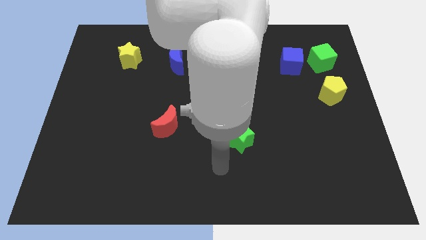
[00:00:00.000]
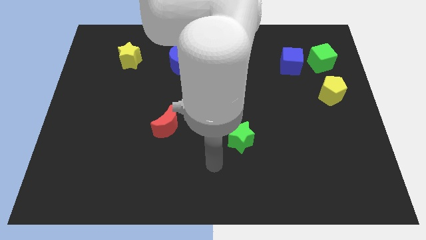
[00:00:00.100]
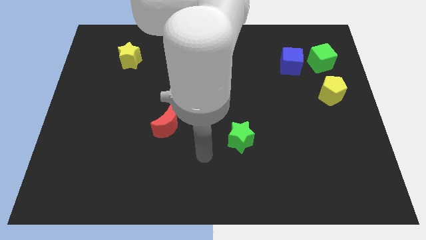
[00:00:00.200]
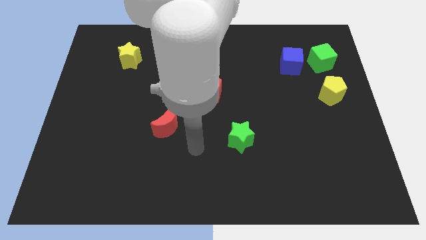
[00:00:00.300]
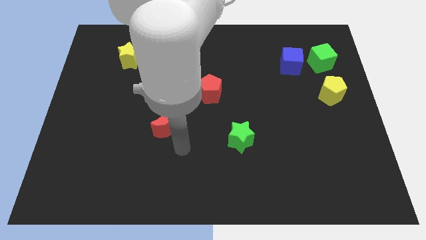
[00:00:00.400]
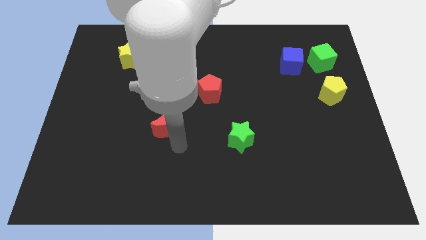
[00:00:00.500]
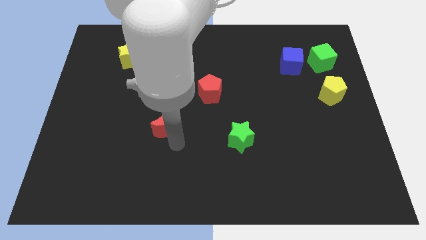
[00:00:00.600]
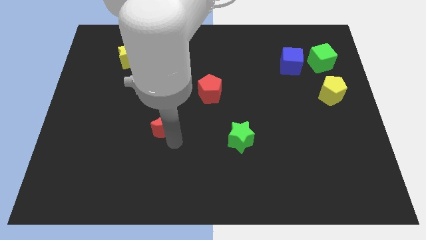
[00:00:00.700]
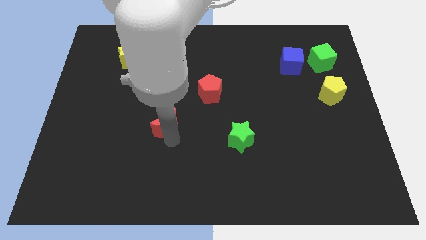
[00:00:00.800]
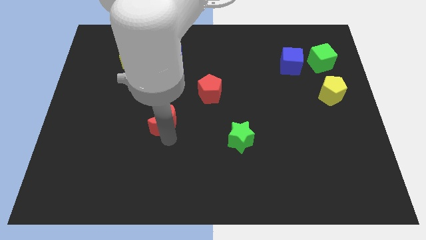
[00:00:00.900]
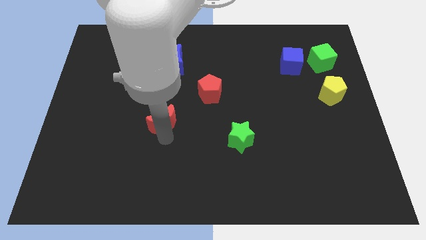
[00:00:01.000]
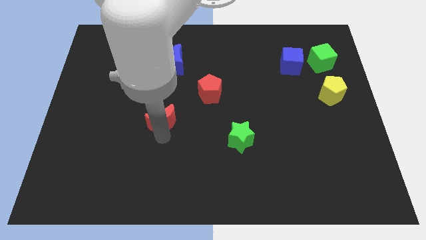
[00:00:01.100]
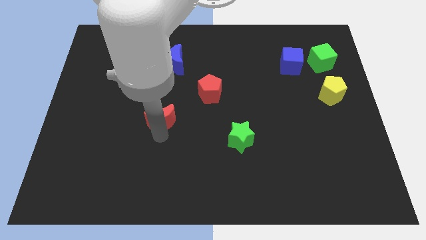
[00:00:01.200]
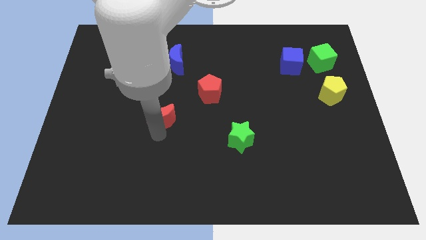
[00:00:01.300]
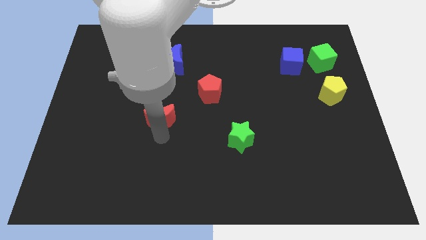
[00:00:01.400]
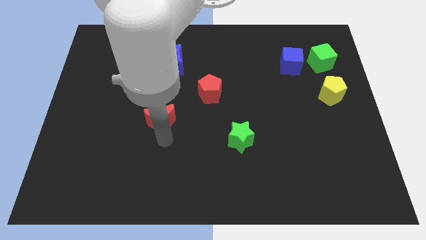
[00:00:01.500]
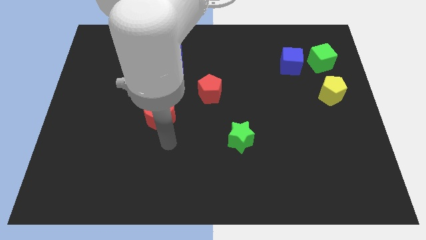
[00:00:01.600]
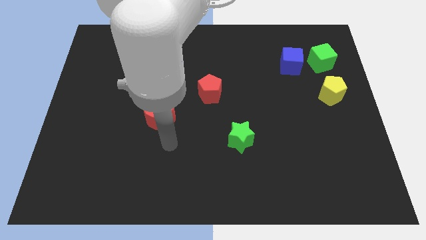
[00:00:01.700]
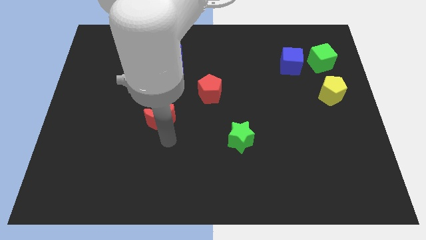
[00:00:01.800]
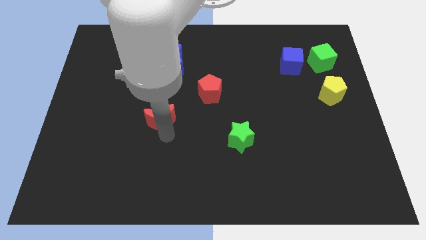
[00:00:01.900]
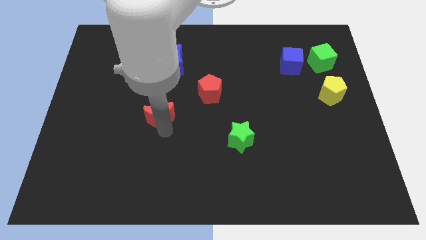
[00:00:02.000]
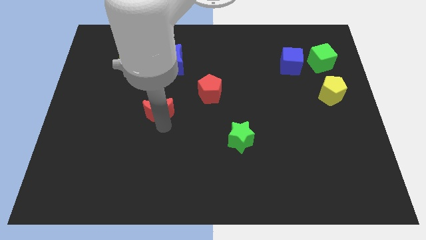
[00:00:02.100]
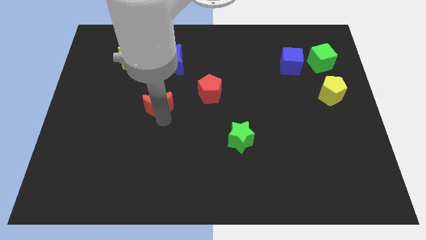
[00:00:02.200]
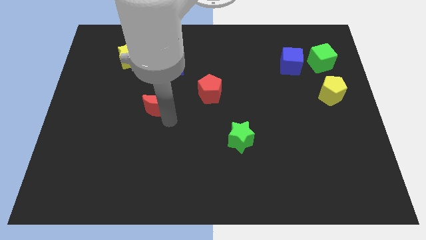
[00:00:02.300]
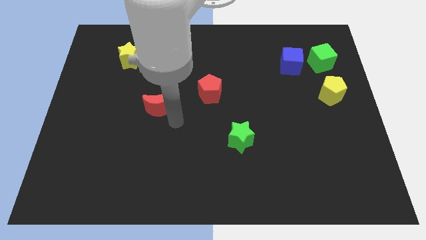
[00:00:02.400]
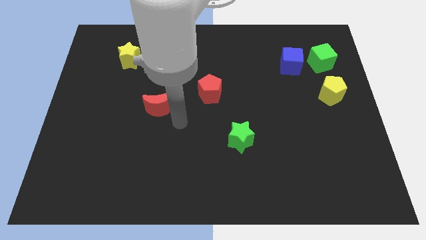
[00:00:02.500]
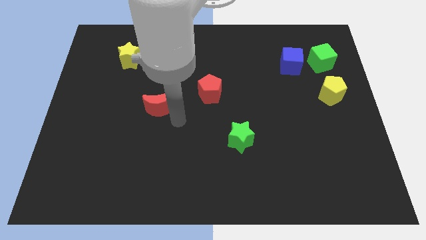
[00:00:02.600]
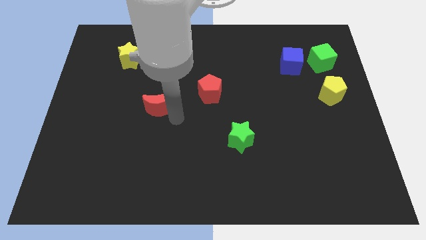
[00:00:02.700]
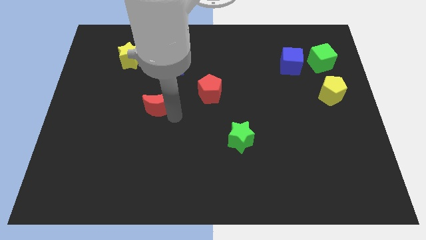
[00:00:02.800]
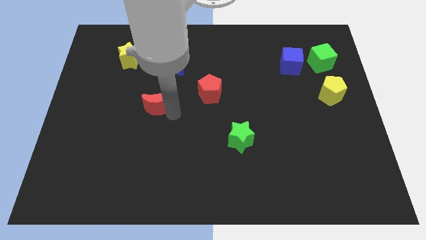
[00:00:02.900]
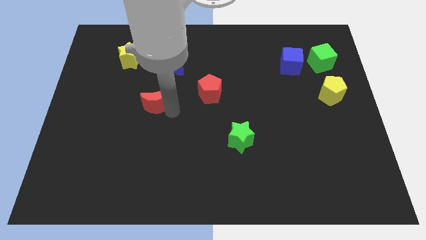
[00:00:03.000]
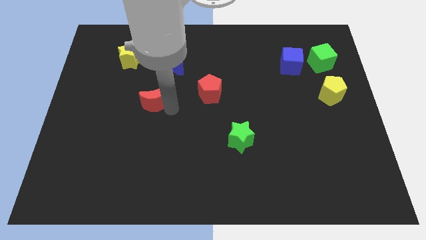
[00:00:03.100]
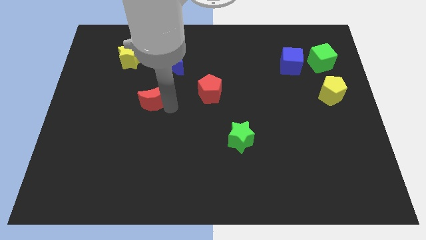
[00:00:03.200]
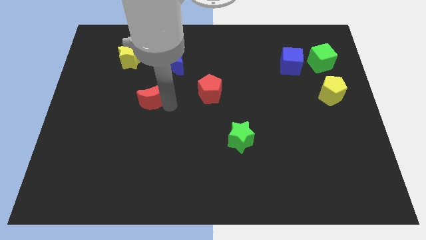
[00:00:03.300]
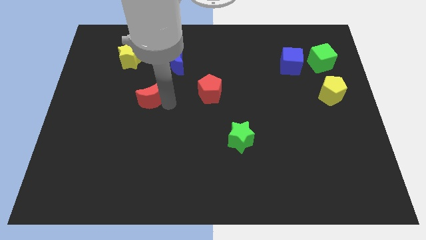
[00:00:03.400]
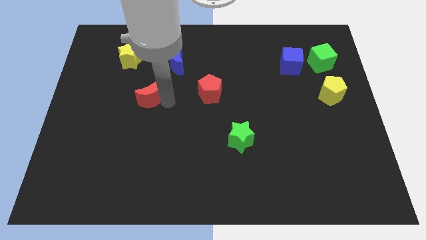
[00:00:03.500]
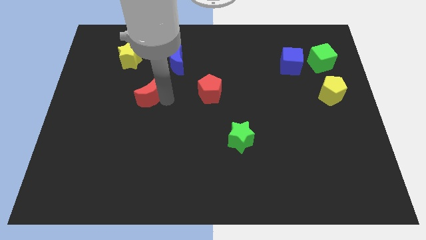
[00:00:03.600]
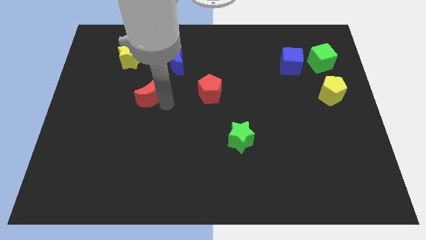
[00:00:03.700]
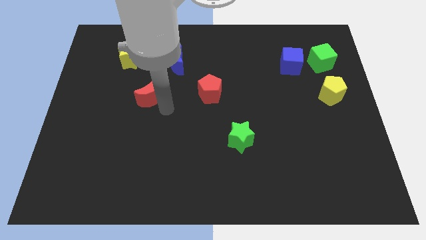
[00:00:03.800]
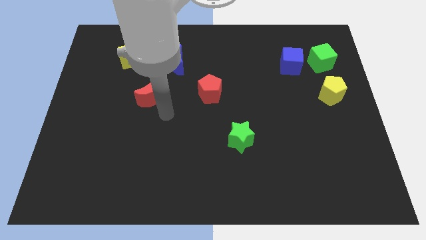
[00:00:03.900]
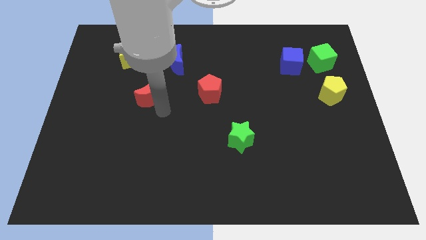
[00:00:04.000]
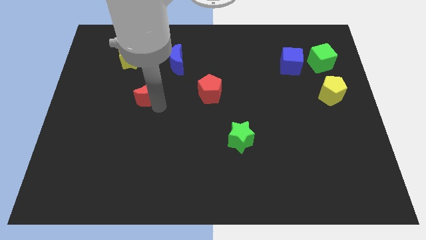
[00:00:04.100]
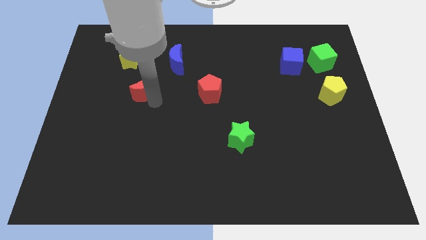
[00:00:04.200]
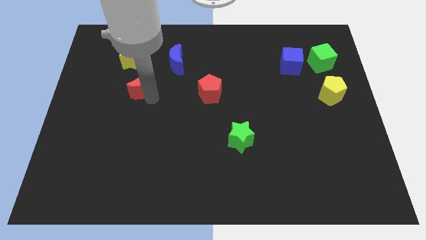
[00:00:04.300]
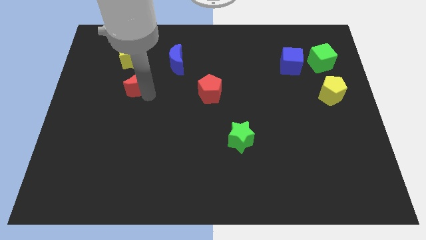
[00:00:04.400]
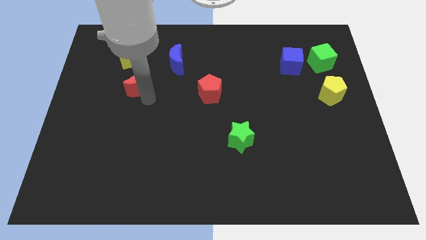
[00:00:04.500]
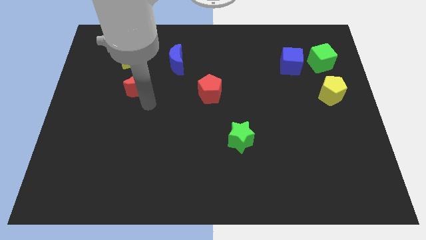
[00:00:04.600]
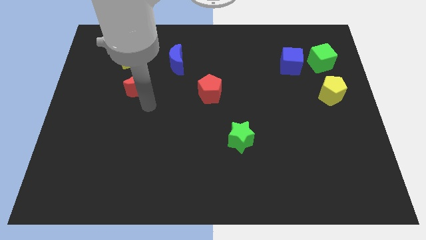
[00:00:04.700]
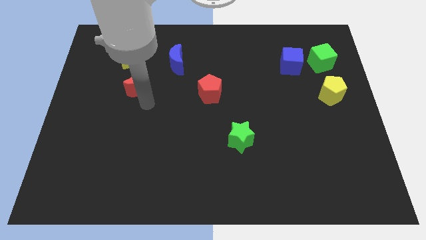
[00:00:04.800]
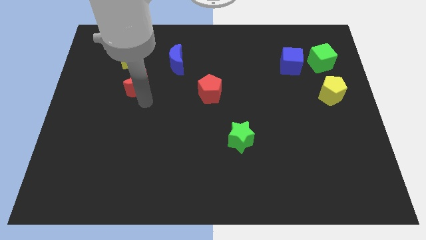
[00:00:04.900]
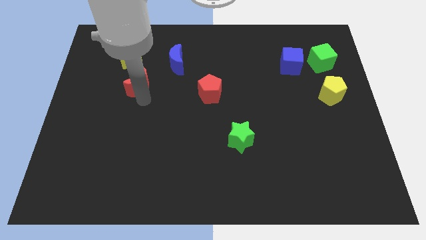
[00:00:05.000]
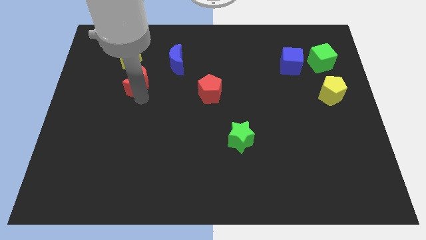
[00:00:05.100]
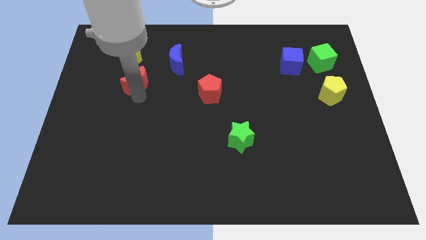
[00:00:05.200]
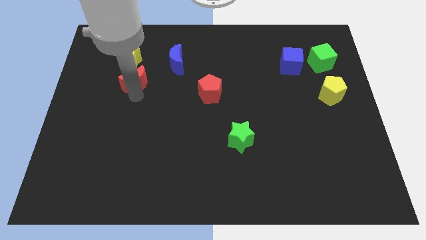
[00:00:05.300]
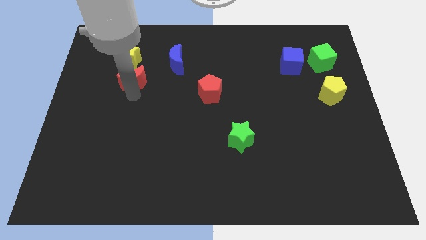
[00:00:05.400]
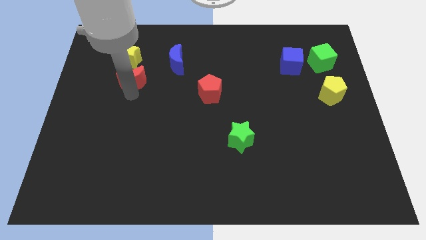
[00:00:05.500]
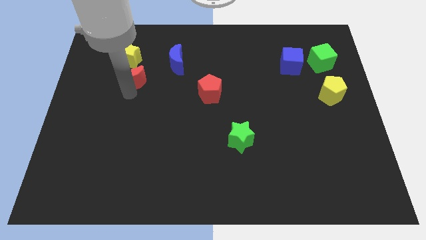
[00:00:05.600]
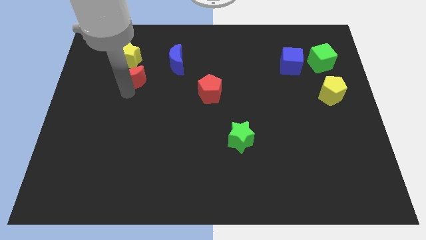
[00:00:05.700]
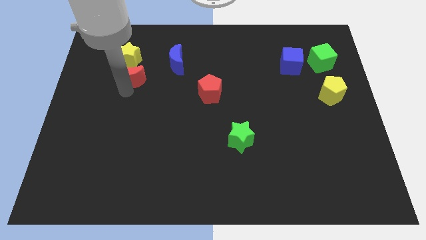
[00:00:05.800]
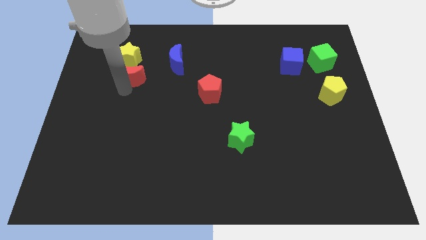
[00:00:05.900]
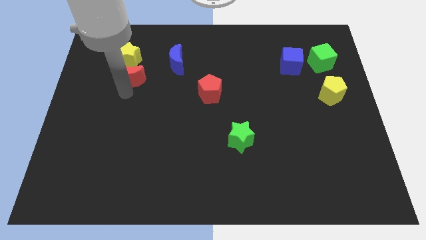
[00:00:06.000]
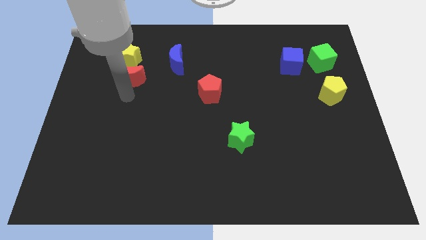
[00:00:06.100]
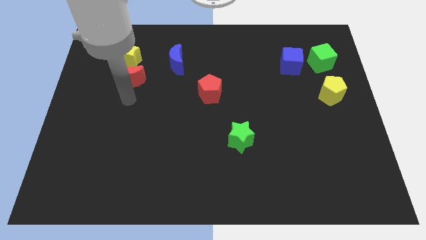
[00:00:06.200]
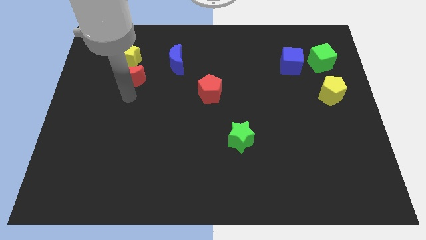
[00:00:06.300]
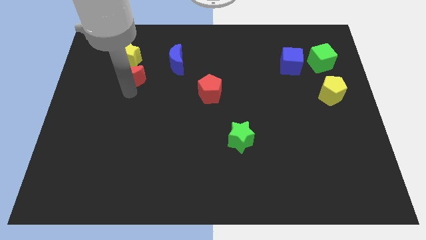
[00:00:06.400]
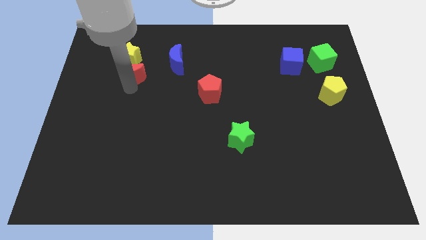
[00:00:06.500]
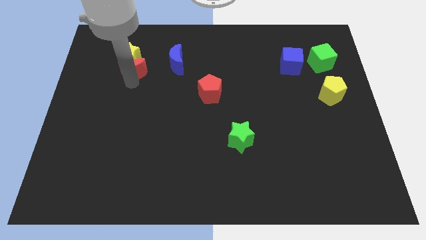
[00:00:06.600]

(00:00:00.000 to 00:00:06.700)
put the red moon to the yellow star
